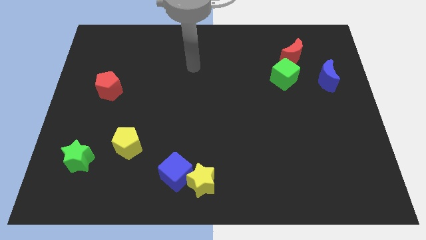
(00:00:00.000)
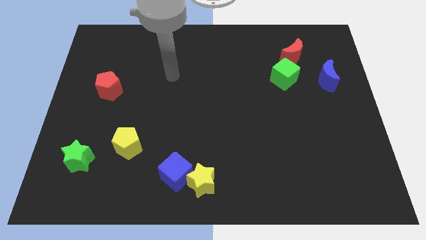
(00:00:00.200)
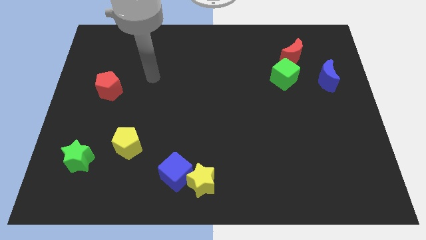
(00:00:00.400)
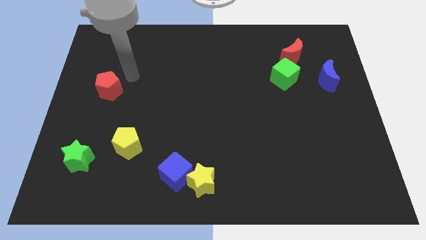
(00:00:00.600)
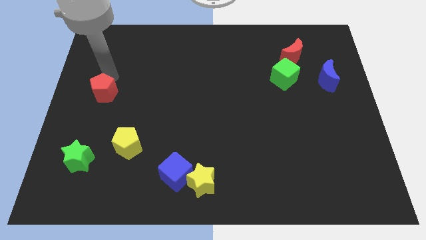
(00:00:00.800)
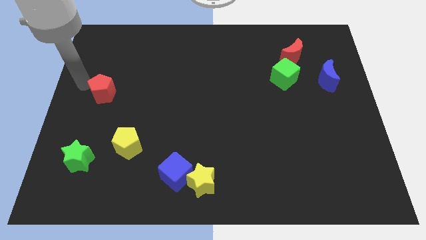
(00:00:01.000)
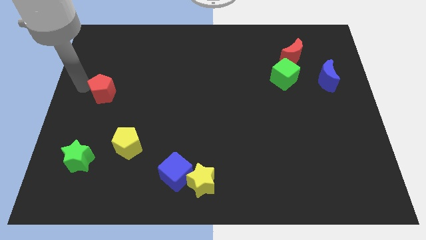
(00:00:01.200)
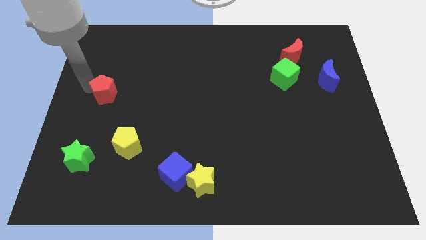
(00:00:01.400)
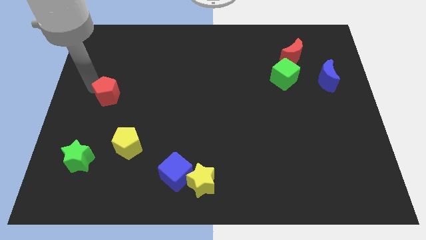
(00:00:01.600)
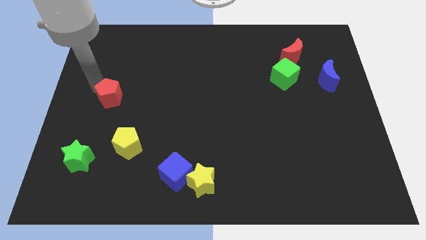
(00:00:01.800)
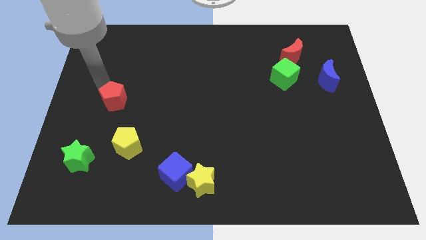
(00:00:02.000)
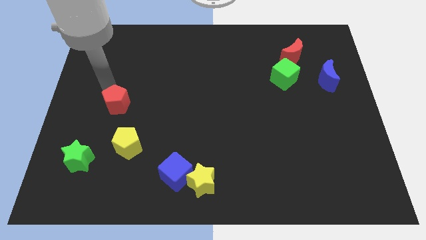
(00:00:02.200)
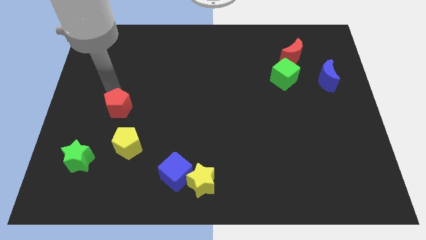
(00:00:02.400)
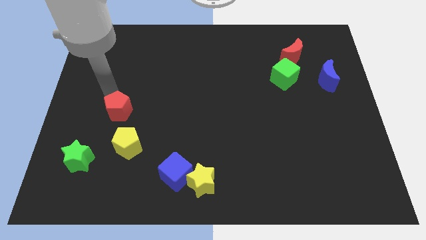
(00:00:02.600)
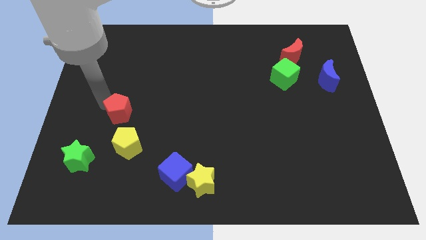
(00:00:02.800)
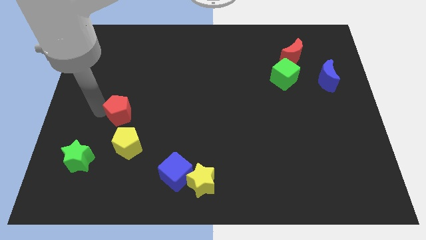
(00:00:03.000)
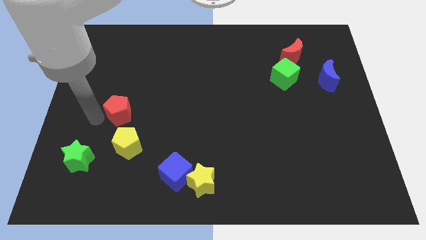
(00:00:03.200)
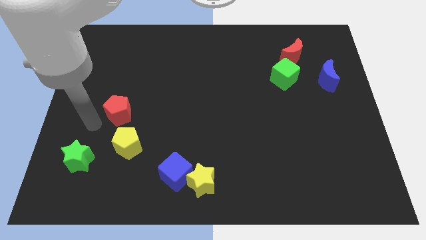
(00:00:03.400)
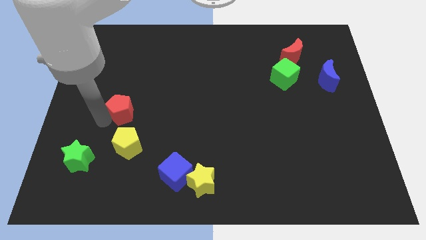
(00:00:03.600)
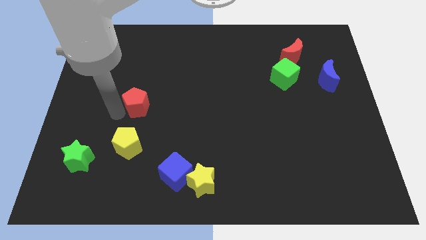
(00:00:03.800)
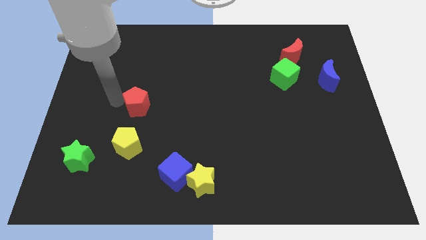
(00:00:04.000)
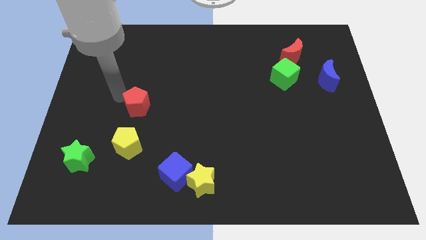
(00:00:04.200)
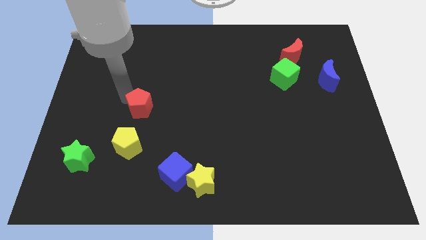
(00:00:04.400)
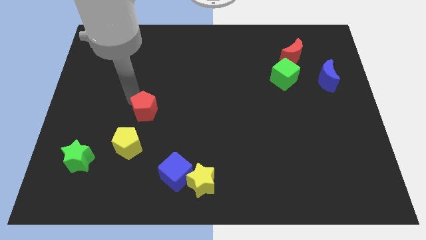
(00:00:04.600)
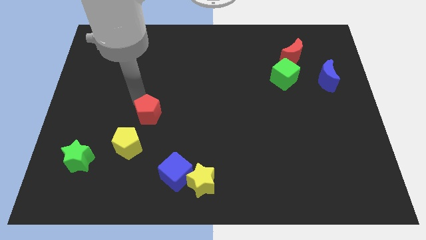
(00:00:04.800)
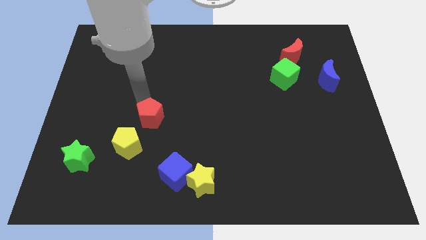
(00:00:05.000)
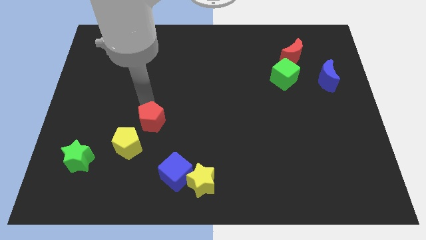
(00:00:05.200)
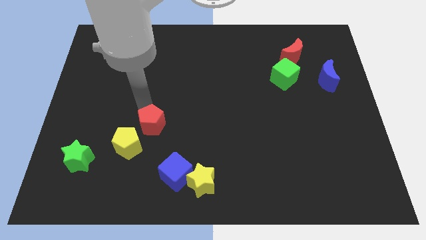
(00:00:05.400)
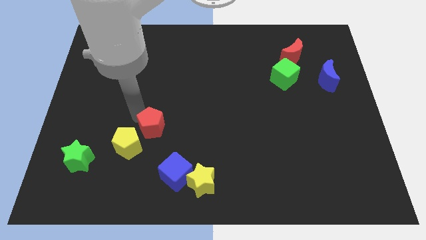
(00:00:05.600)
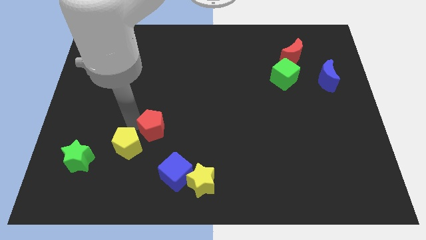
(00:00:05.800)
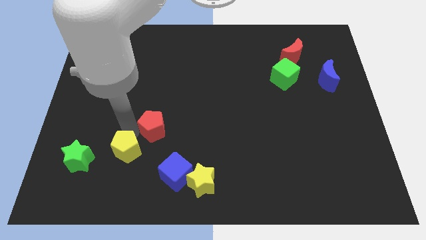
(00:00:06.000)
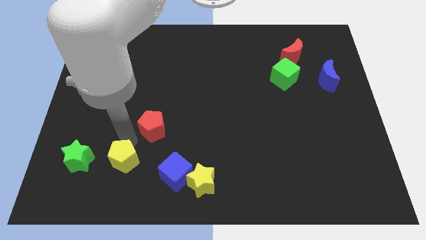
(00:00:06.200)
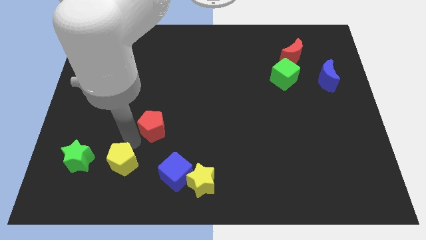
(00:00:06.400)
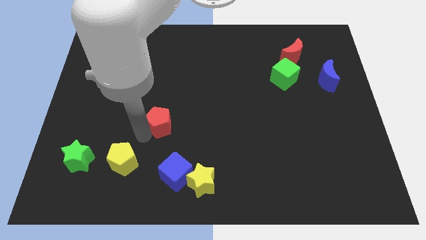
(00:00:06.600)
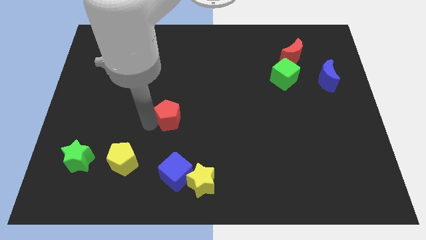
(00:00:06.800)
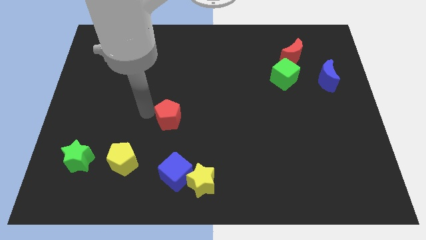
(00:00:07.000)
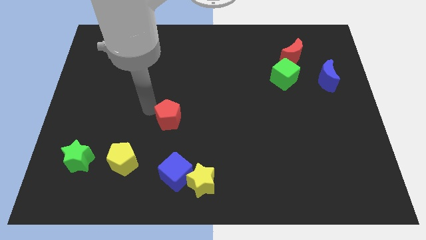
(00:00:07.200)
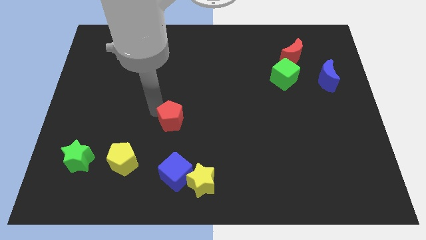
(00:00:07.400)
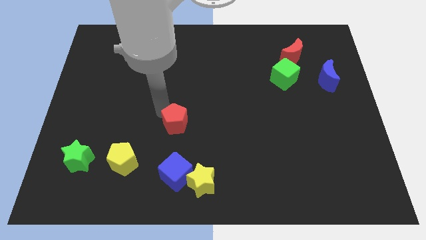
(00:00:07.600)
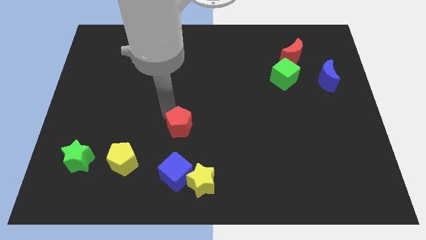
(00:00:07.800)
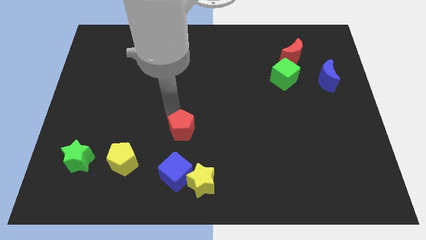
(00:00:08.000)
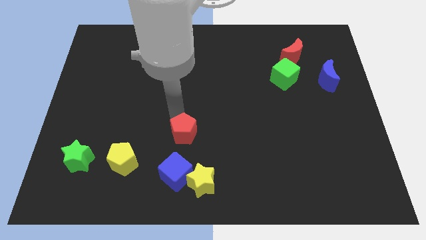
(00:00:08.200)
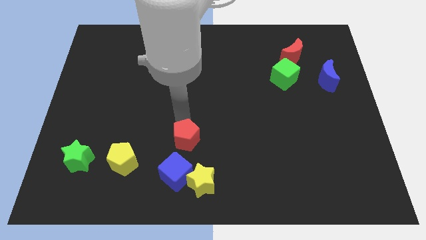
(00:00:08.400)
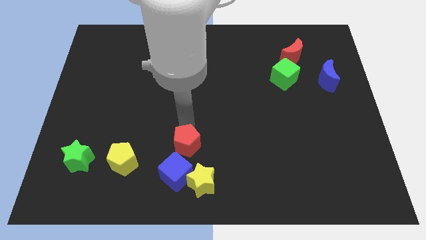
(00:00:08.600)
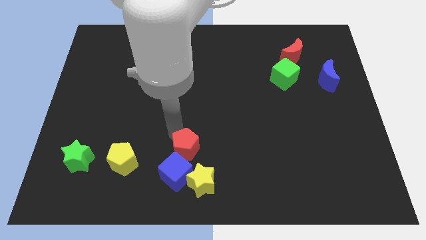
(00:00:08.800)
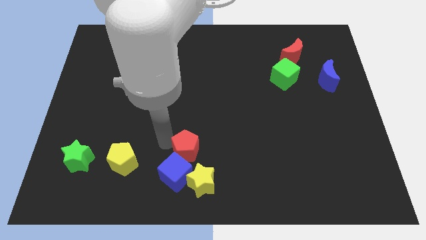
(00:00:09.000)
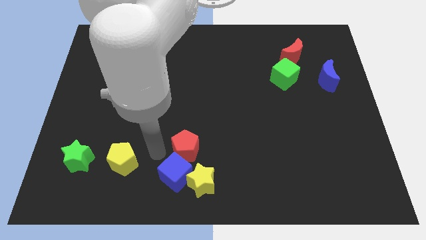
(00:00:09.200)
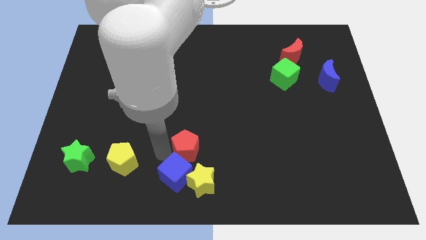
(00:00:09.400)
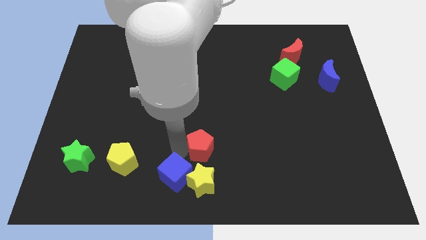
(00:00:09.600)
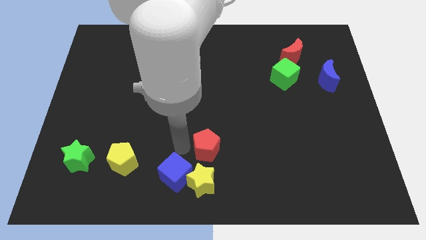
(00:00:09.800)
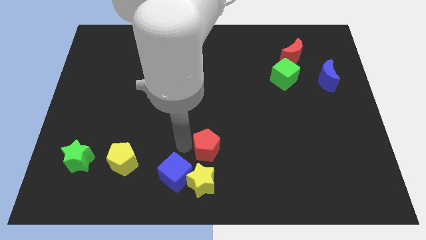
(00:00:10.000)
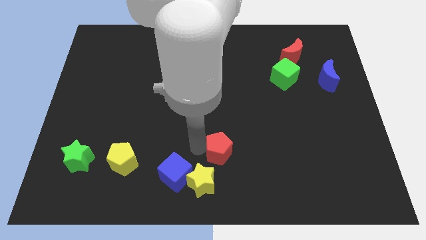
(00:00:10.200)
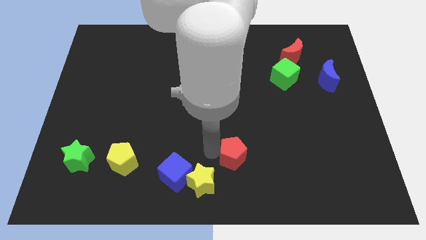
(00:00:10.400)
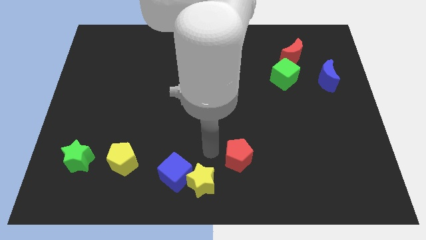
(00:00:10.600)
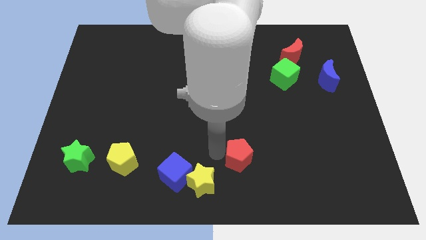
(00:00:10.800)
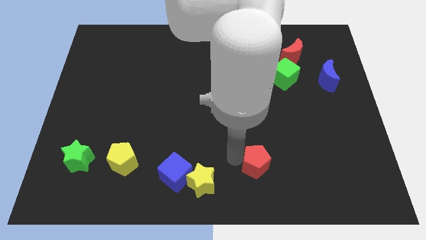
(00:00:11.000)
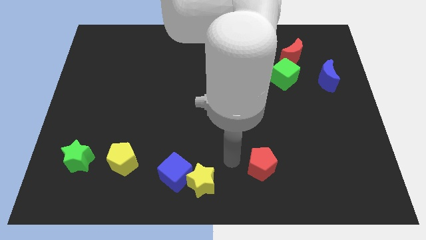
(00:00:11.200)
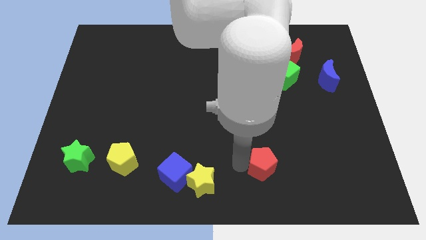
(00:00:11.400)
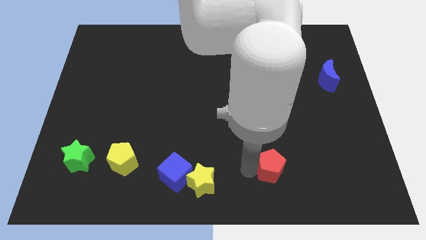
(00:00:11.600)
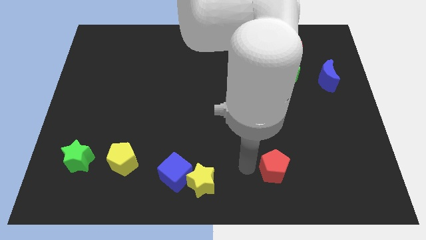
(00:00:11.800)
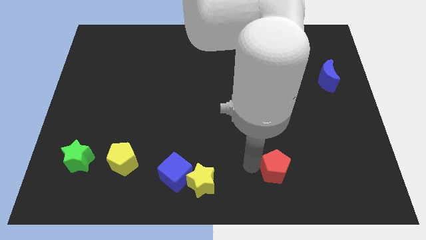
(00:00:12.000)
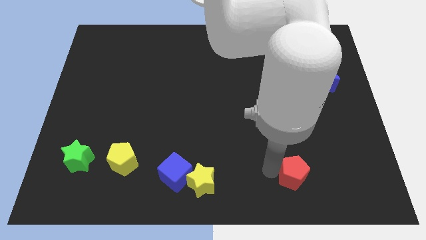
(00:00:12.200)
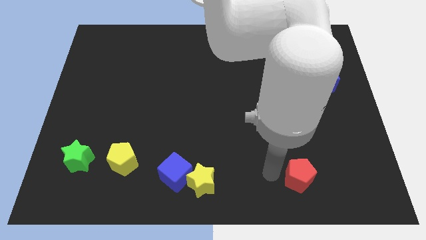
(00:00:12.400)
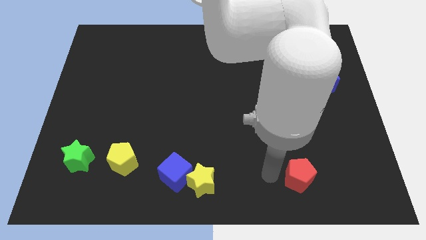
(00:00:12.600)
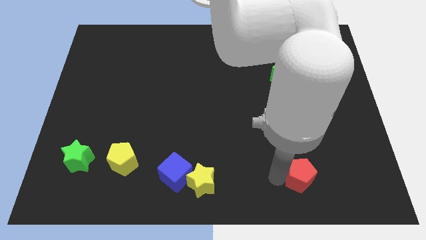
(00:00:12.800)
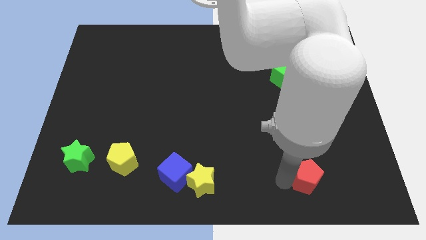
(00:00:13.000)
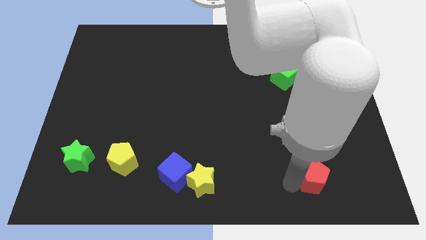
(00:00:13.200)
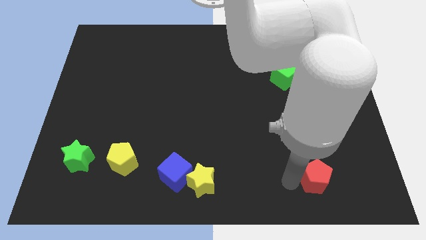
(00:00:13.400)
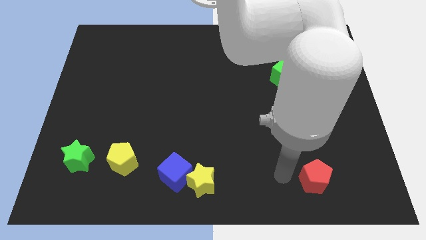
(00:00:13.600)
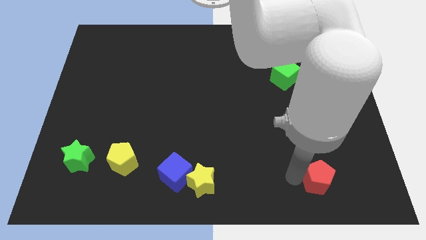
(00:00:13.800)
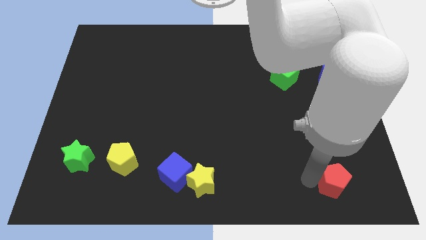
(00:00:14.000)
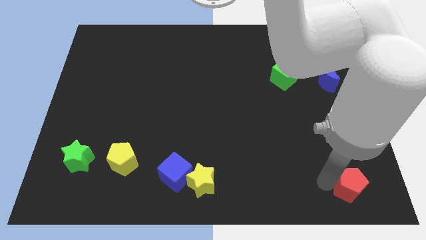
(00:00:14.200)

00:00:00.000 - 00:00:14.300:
slide the red pentagon to the bottom right corner

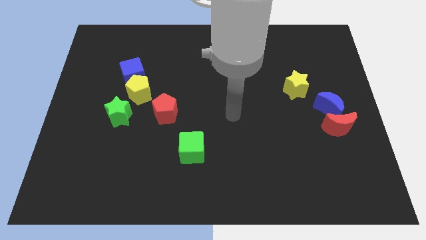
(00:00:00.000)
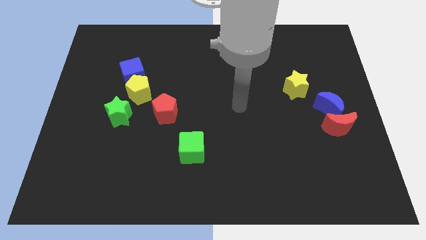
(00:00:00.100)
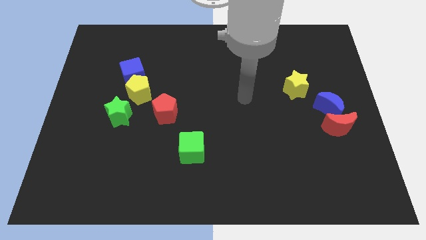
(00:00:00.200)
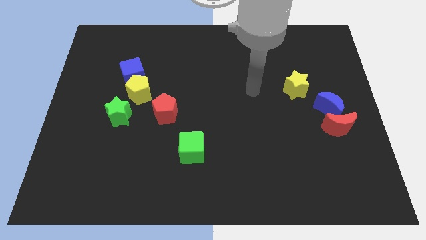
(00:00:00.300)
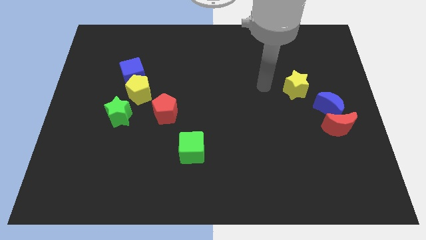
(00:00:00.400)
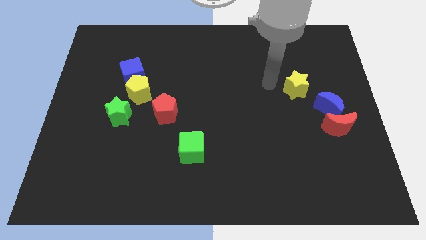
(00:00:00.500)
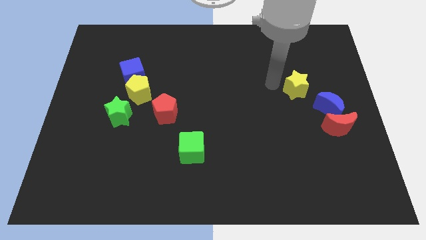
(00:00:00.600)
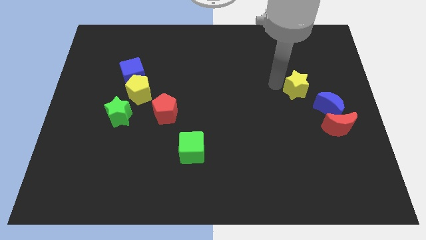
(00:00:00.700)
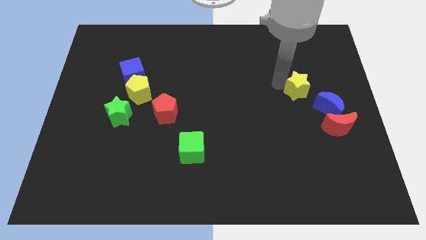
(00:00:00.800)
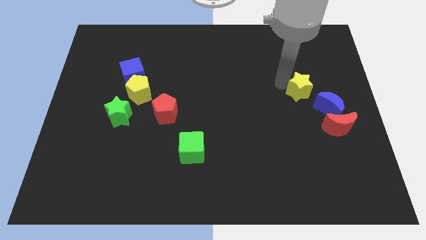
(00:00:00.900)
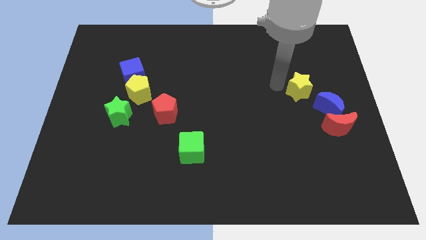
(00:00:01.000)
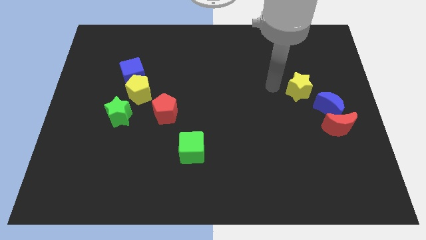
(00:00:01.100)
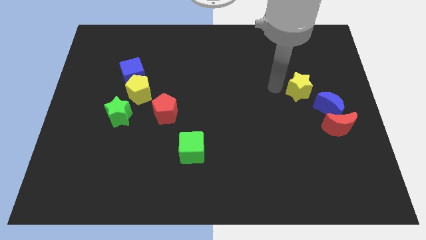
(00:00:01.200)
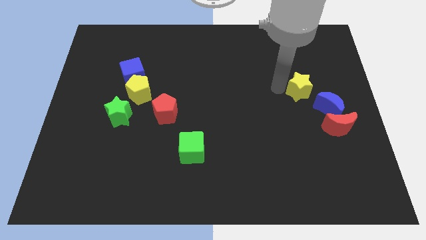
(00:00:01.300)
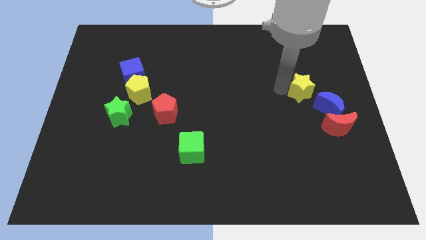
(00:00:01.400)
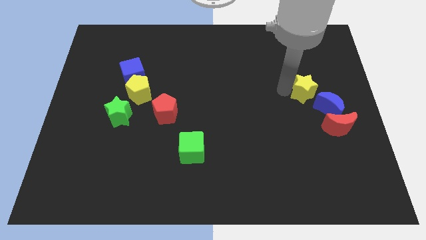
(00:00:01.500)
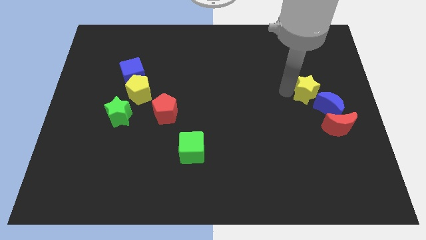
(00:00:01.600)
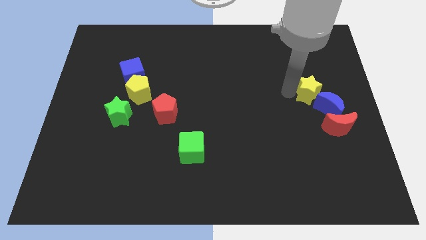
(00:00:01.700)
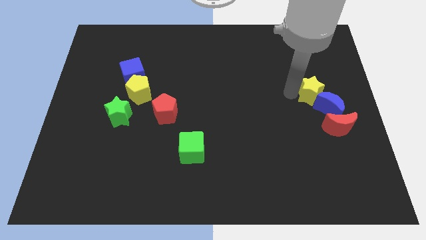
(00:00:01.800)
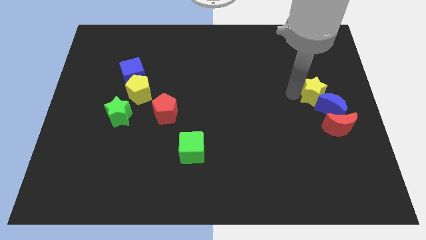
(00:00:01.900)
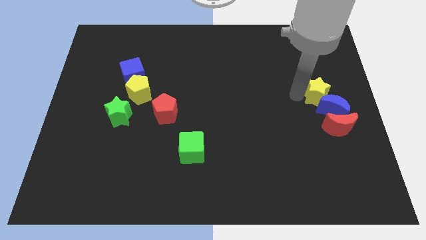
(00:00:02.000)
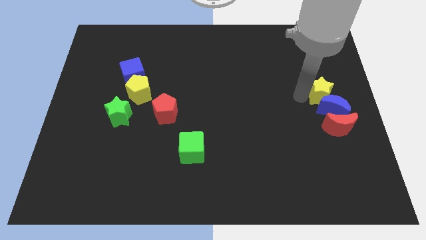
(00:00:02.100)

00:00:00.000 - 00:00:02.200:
slide the yellow star to the center right
